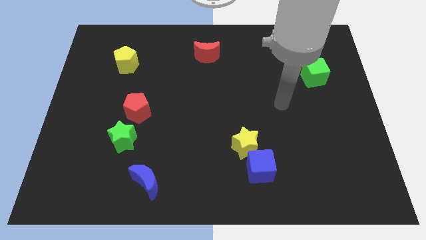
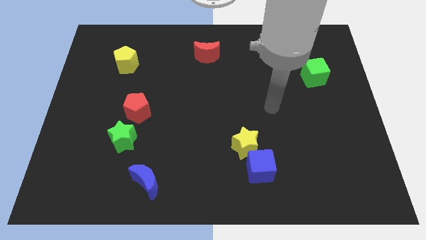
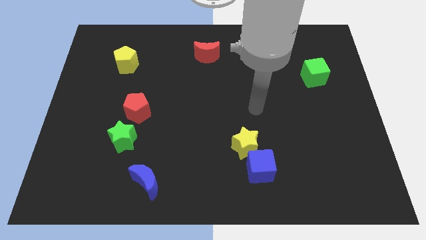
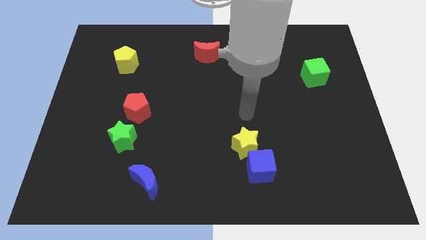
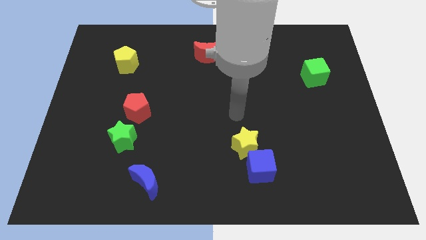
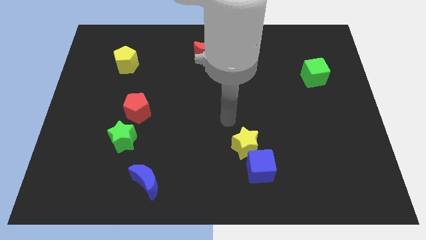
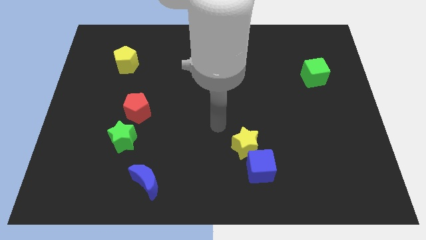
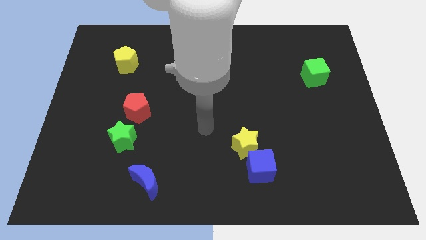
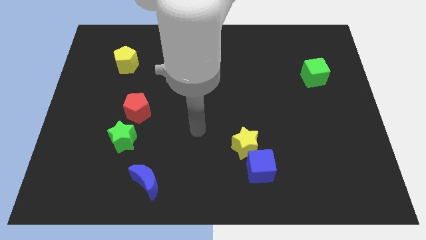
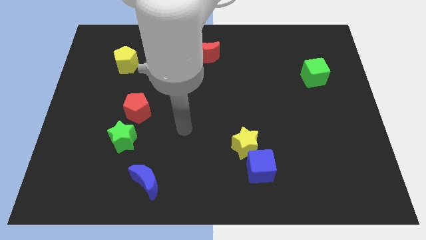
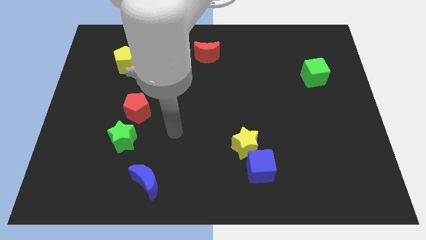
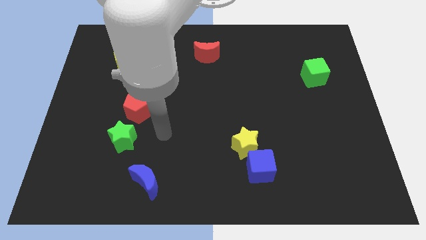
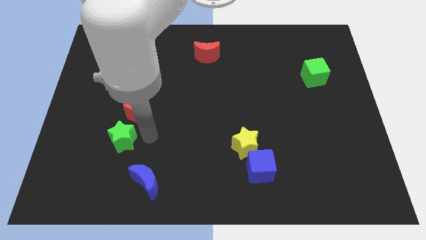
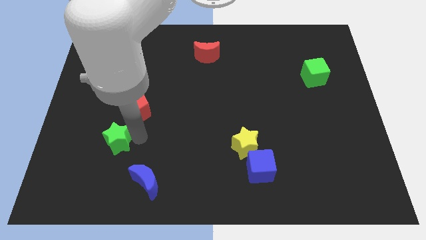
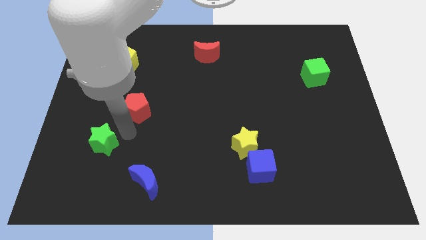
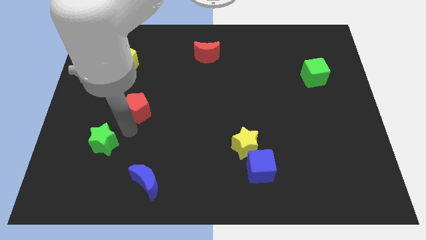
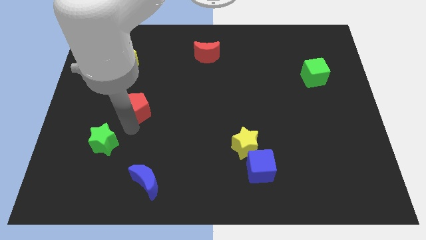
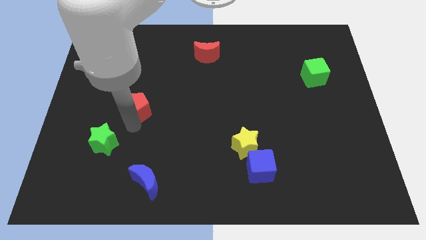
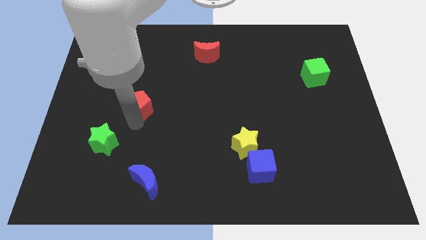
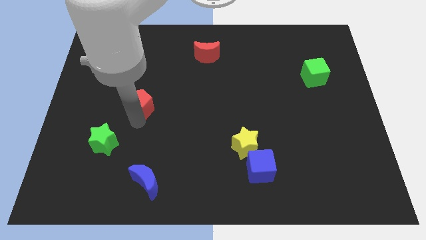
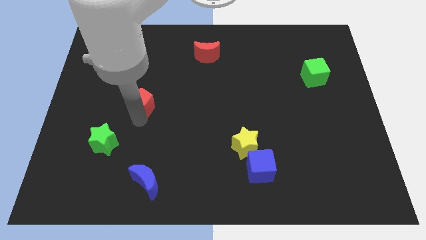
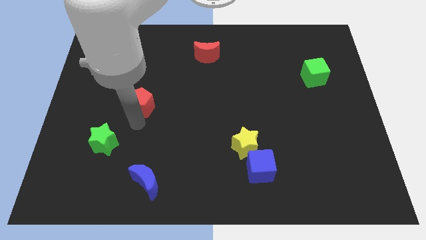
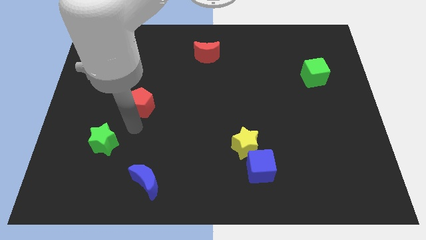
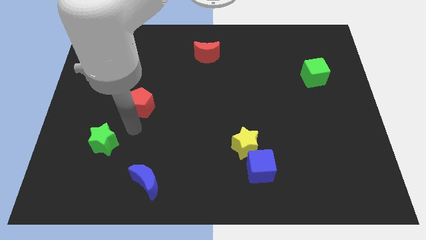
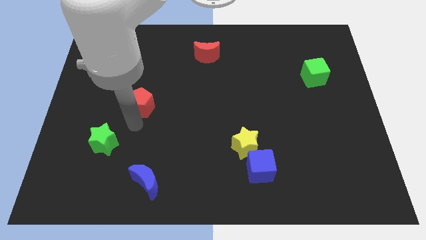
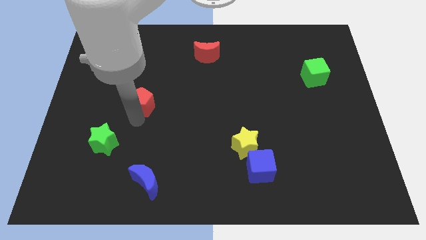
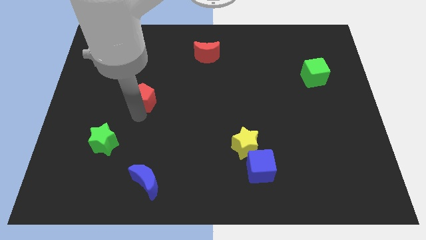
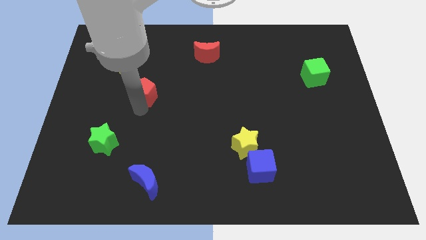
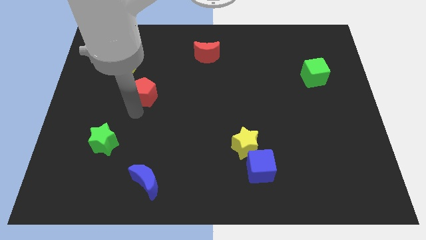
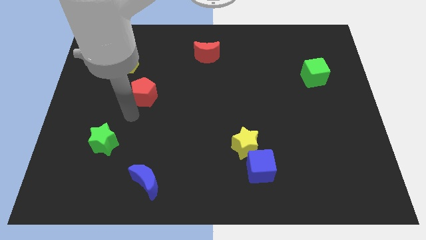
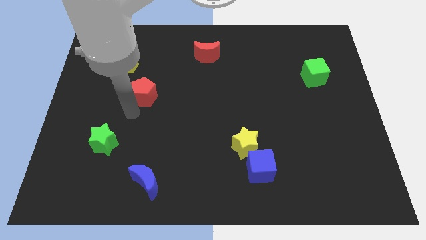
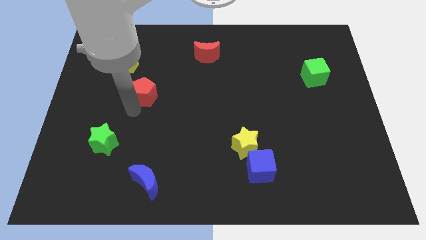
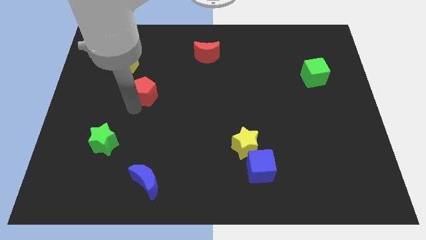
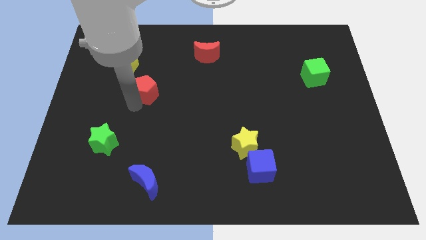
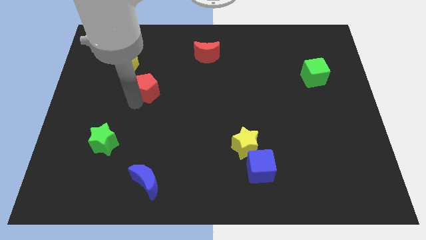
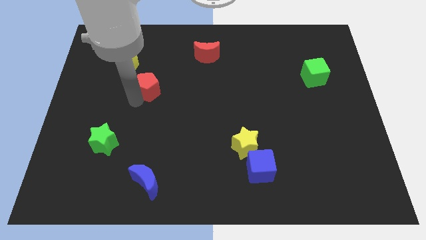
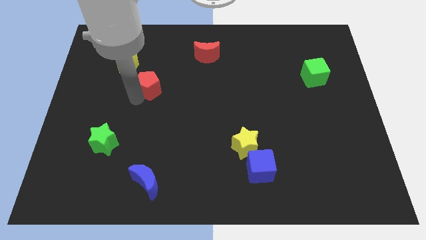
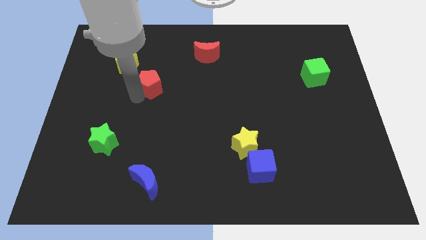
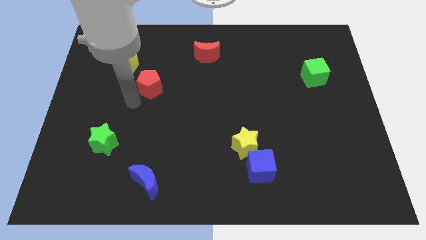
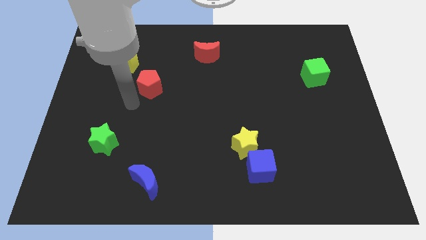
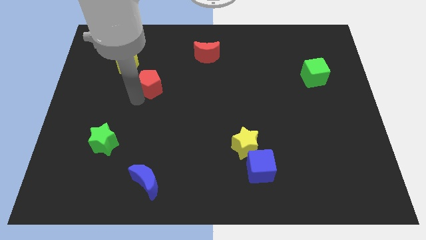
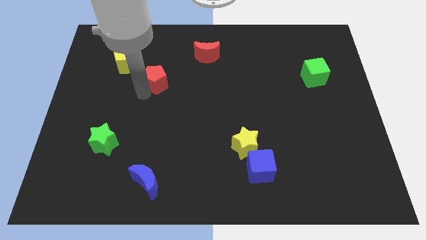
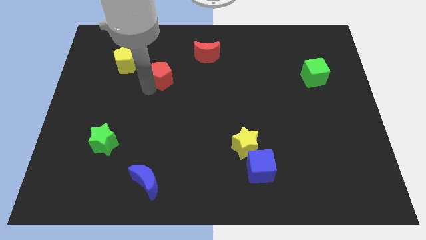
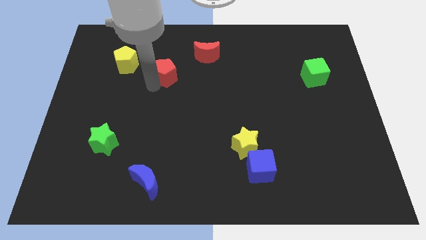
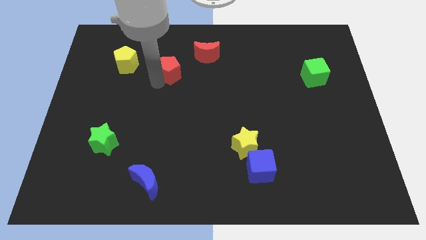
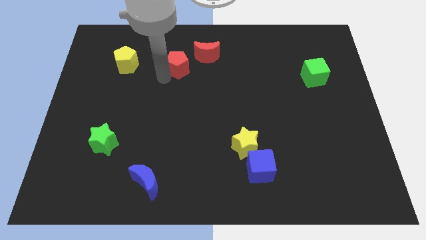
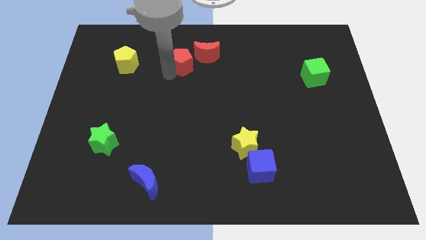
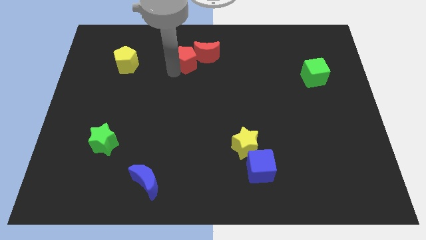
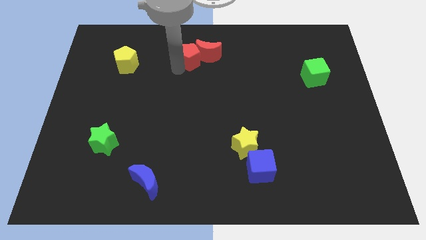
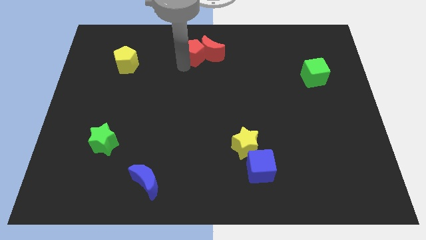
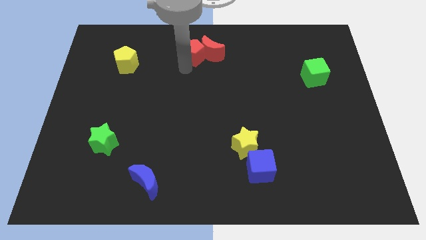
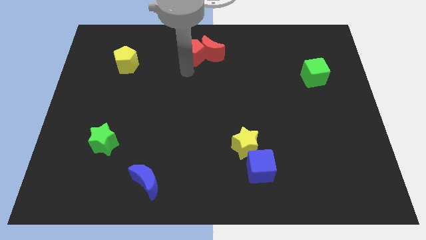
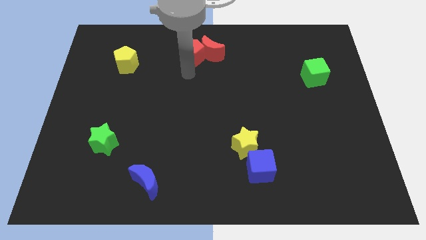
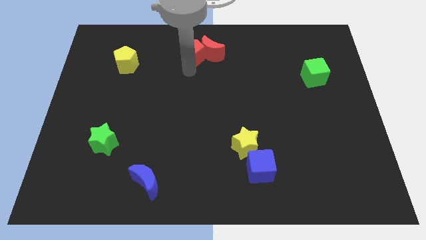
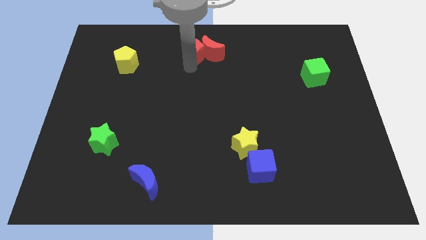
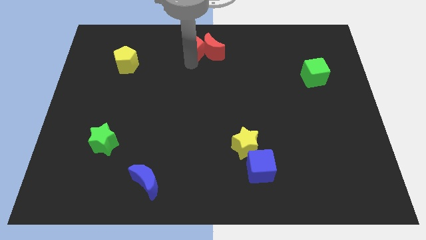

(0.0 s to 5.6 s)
move the red pentagon to the top

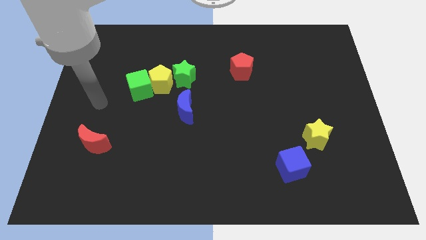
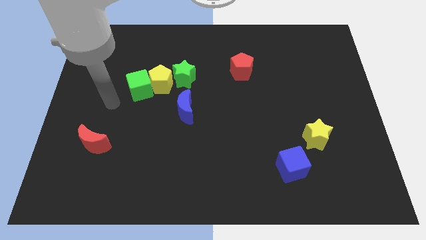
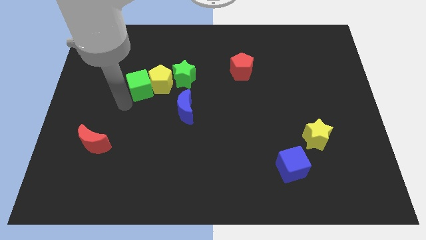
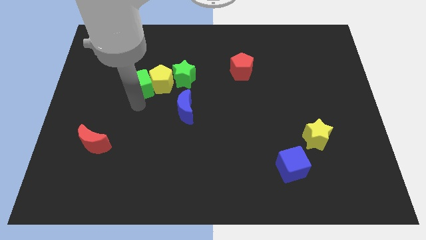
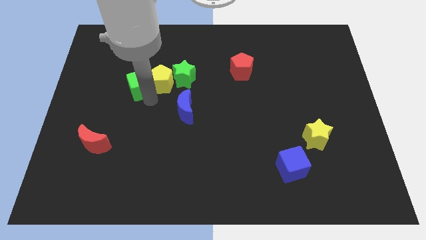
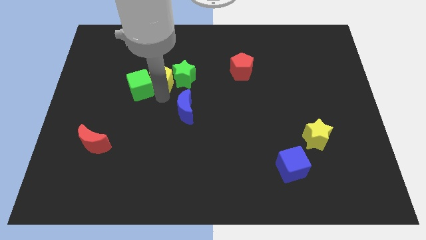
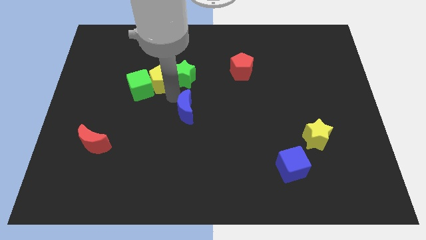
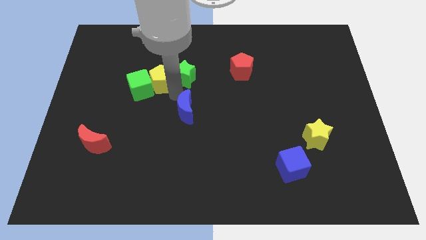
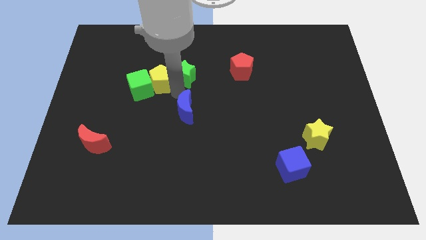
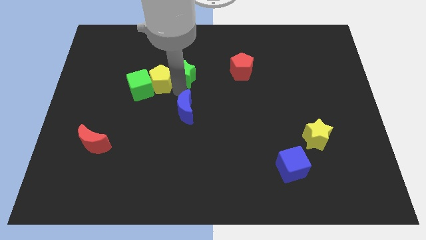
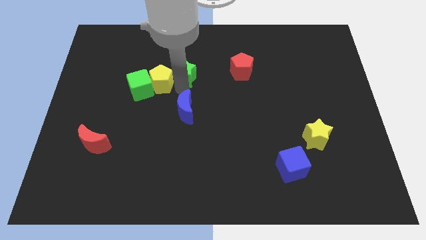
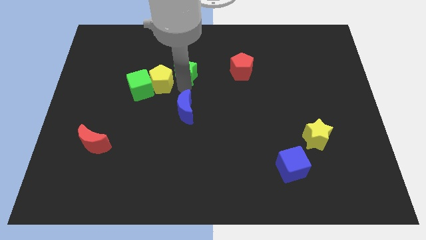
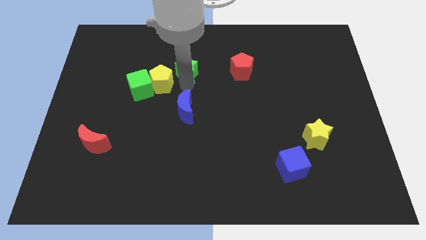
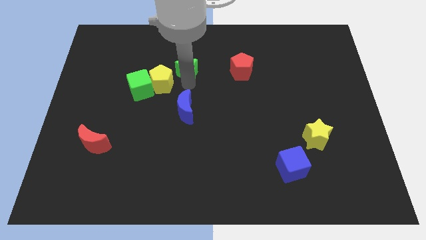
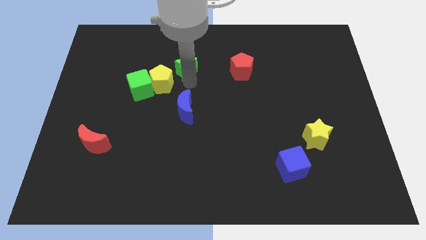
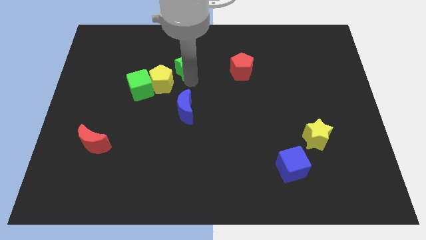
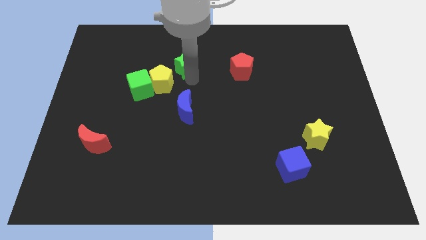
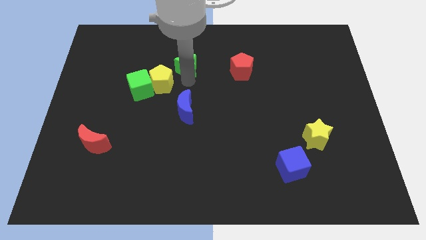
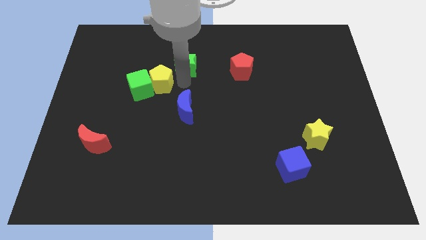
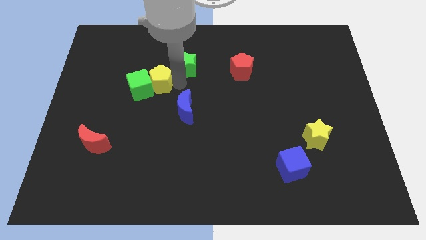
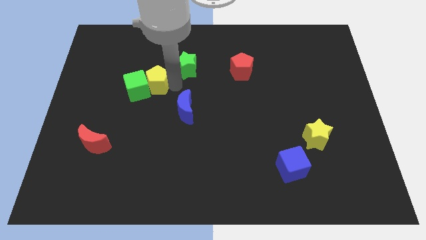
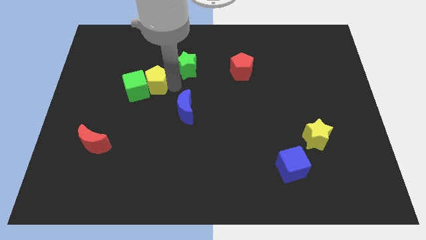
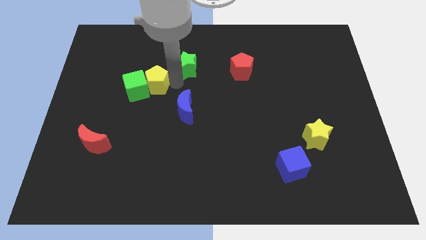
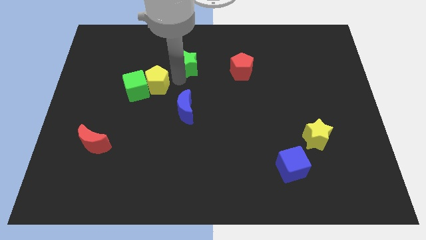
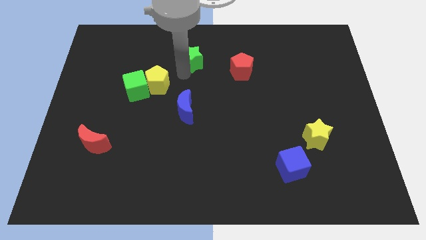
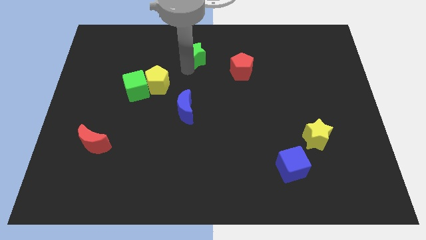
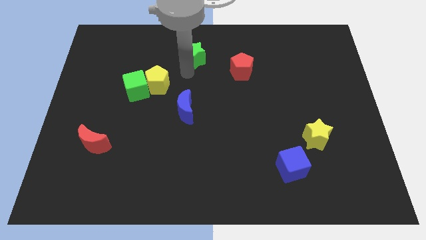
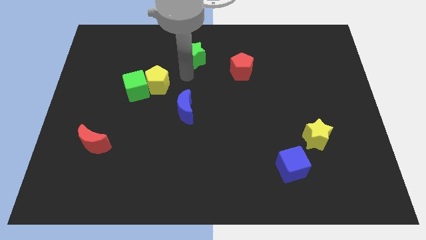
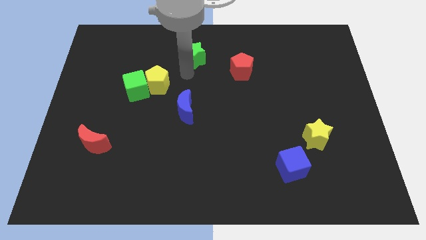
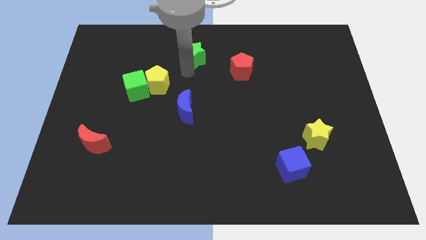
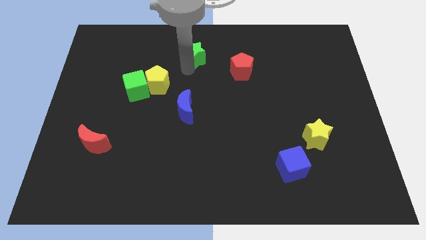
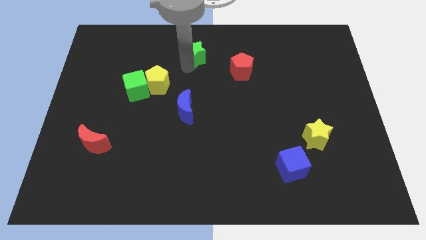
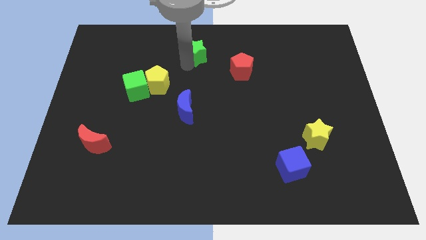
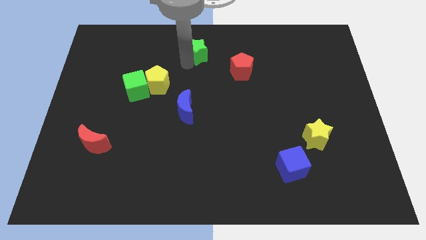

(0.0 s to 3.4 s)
put the green star to the top
